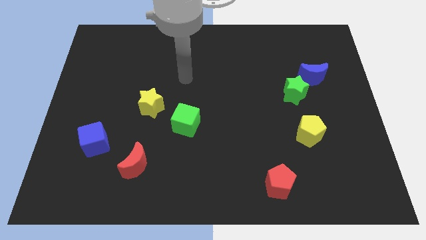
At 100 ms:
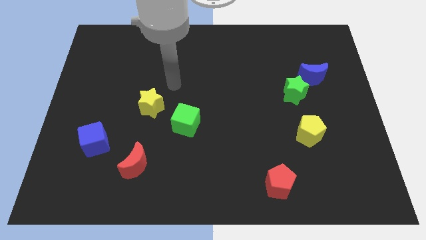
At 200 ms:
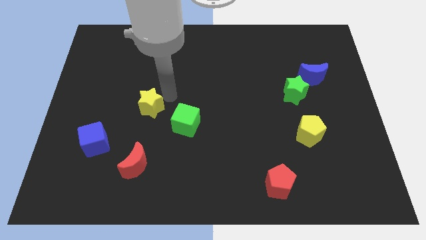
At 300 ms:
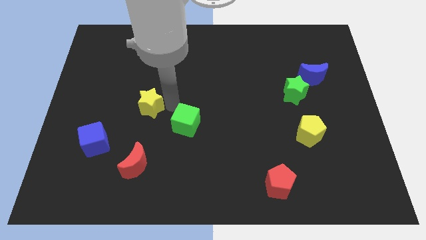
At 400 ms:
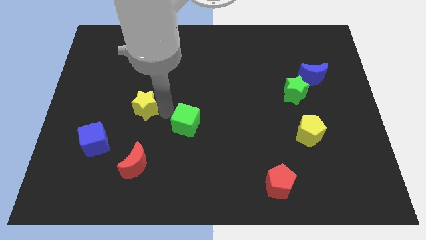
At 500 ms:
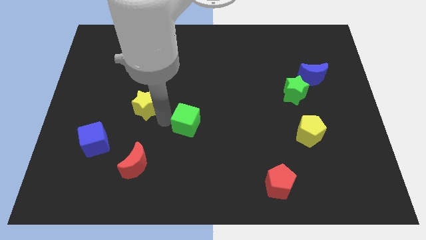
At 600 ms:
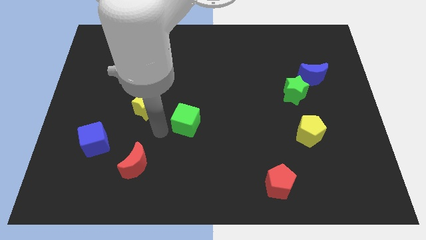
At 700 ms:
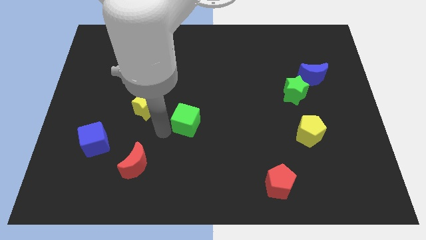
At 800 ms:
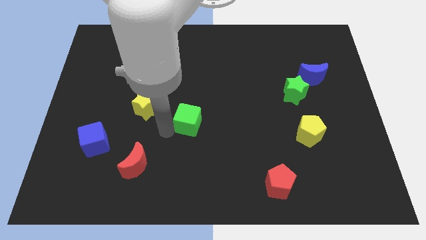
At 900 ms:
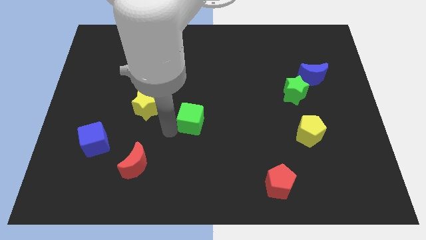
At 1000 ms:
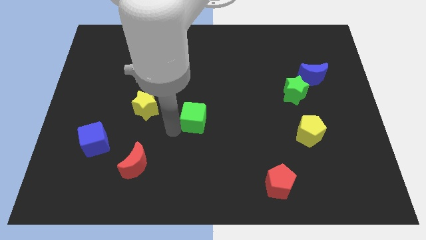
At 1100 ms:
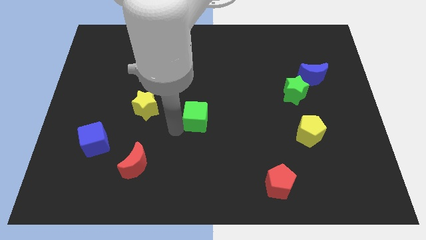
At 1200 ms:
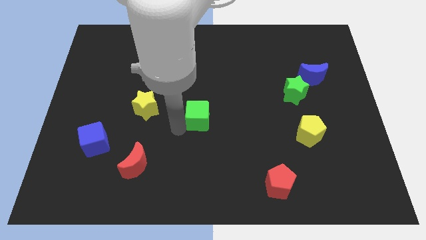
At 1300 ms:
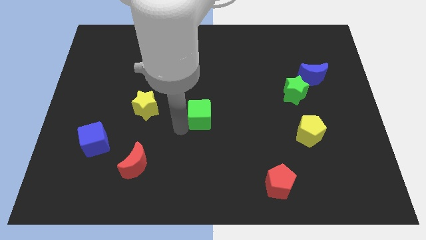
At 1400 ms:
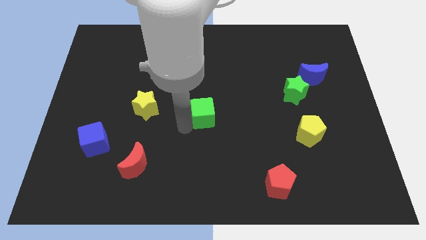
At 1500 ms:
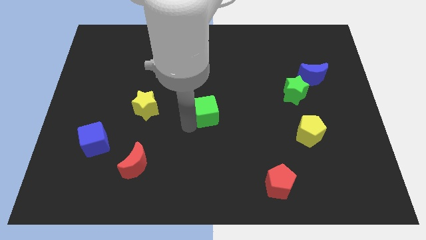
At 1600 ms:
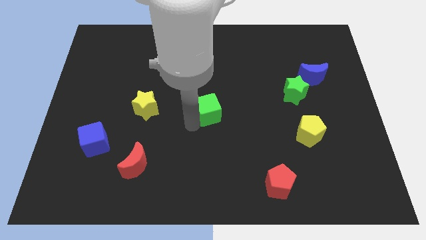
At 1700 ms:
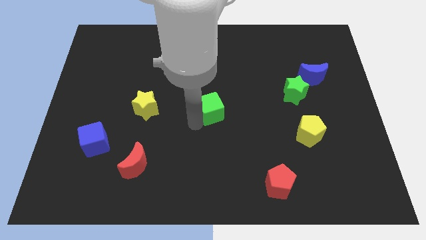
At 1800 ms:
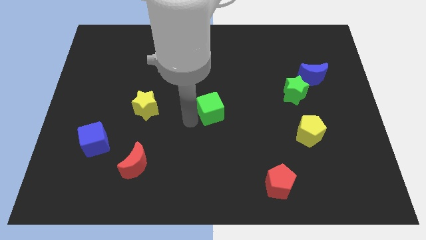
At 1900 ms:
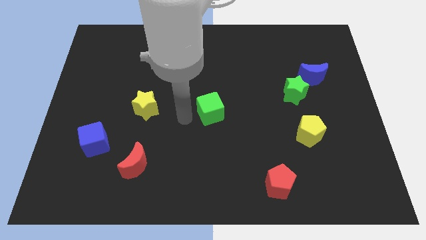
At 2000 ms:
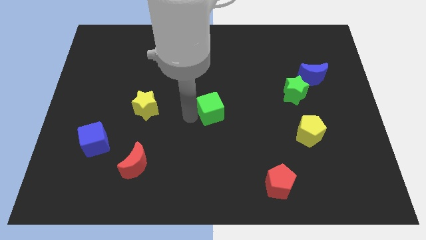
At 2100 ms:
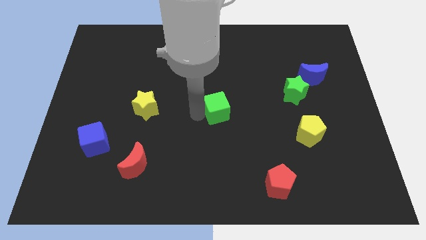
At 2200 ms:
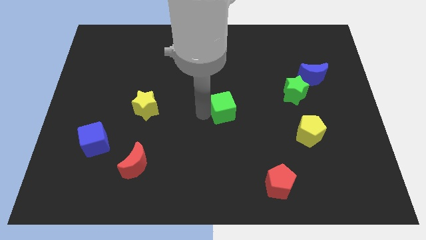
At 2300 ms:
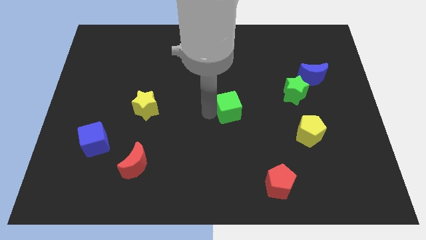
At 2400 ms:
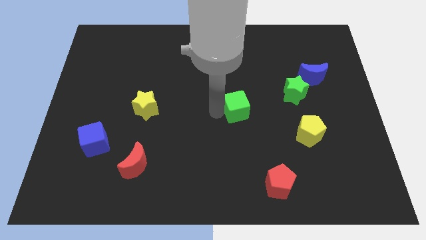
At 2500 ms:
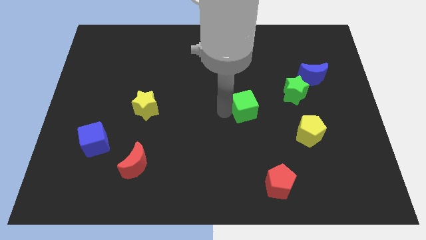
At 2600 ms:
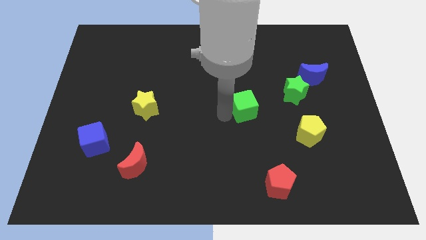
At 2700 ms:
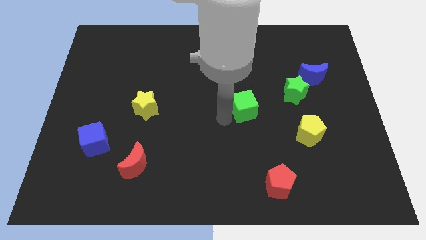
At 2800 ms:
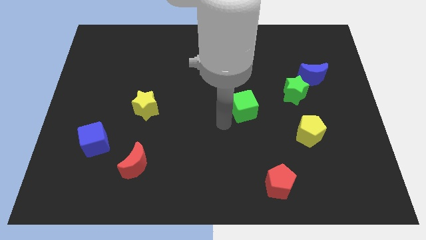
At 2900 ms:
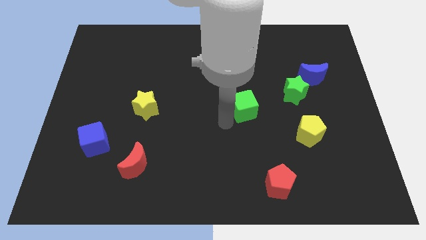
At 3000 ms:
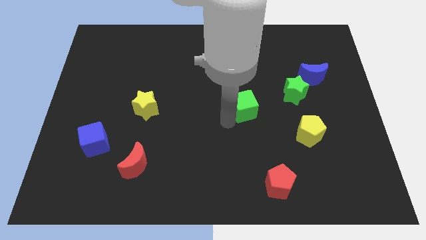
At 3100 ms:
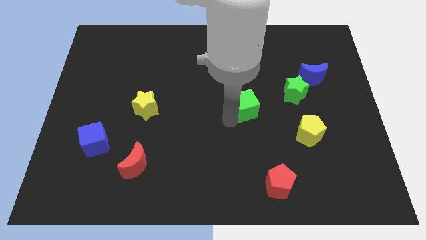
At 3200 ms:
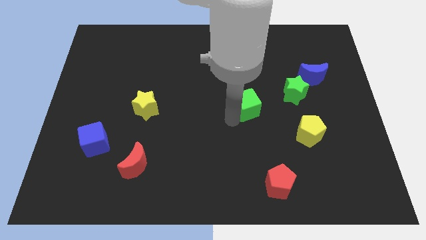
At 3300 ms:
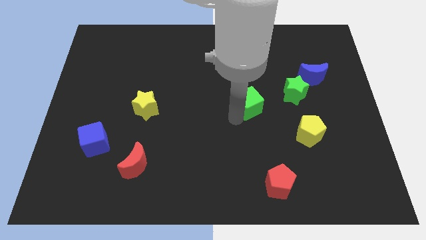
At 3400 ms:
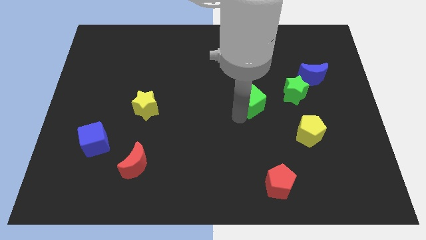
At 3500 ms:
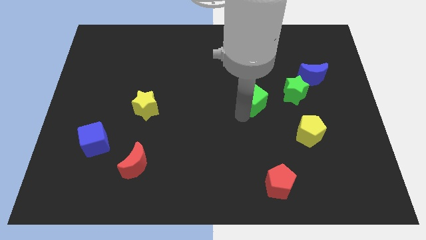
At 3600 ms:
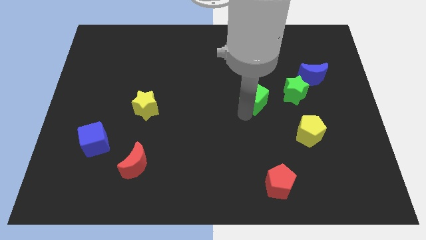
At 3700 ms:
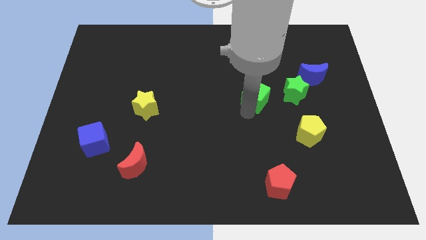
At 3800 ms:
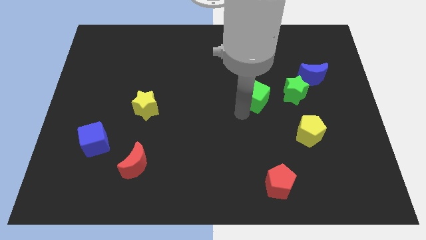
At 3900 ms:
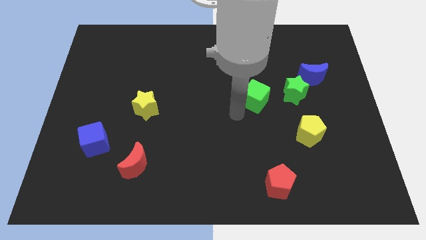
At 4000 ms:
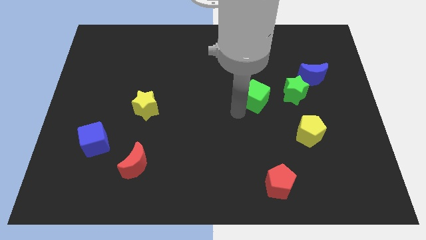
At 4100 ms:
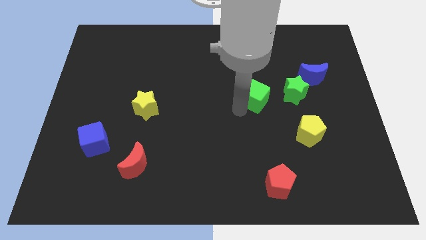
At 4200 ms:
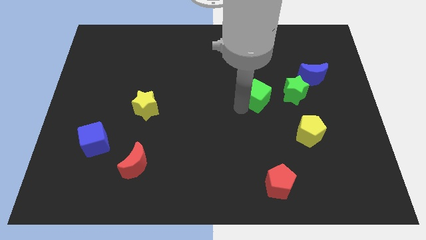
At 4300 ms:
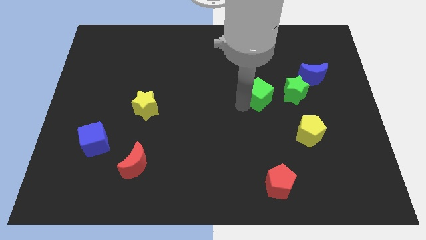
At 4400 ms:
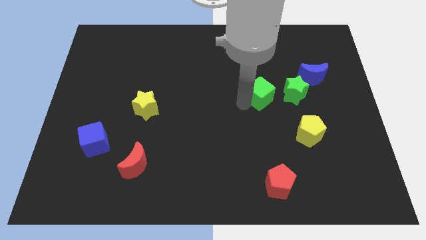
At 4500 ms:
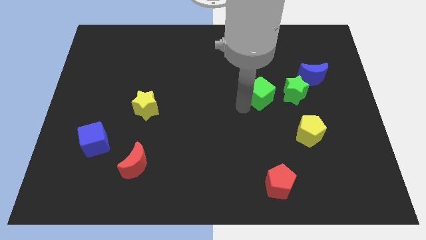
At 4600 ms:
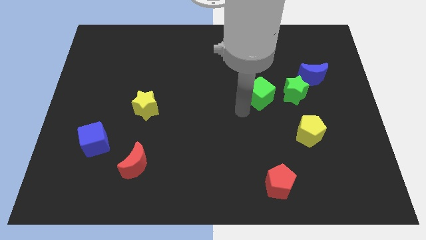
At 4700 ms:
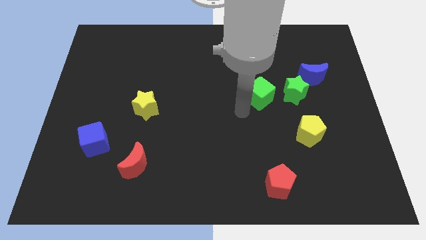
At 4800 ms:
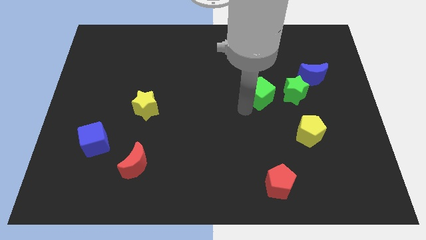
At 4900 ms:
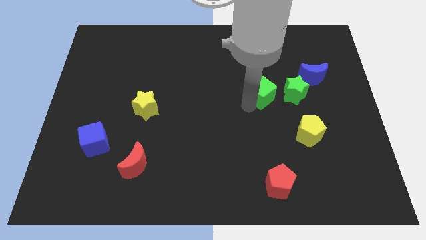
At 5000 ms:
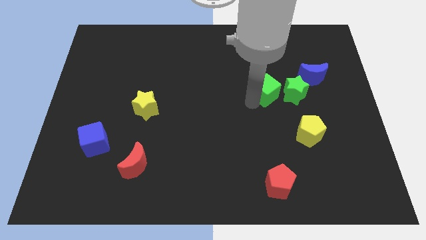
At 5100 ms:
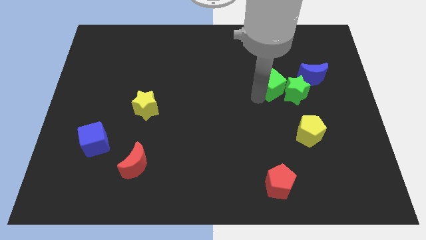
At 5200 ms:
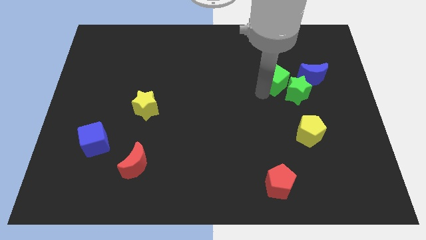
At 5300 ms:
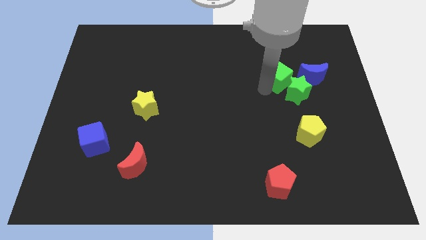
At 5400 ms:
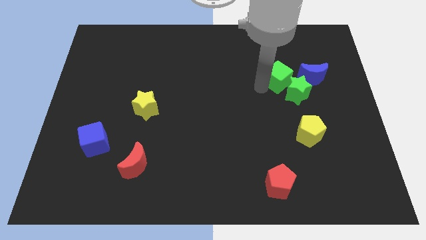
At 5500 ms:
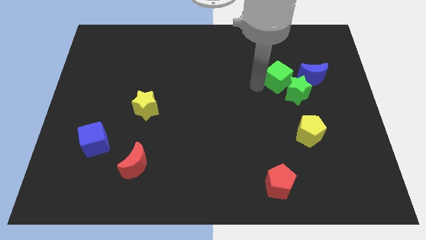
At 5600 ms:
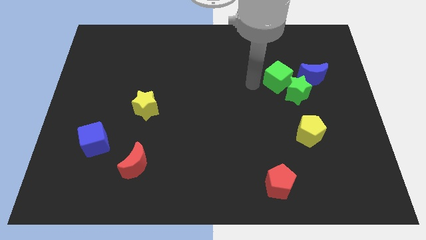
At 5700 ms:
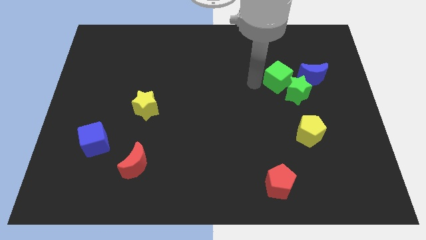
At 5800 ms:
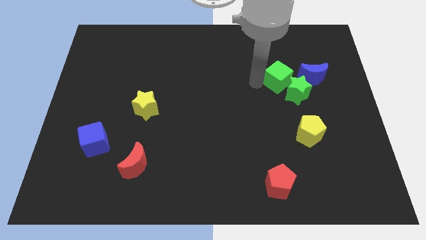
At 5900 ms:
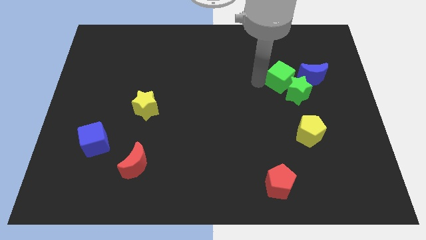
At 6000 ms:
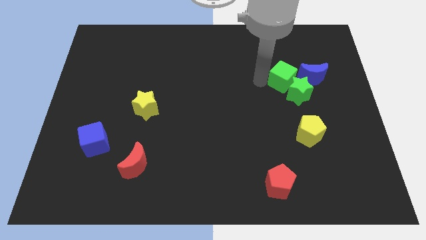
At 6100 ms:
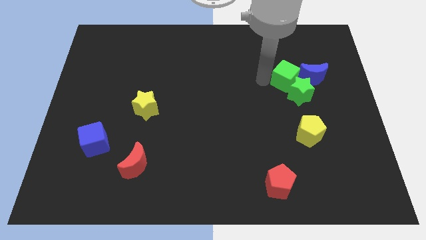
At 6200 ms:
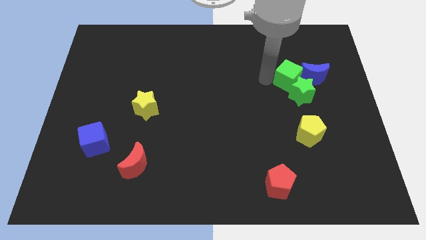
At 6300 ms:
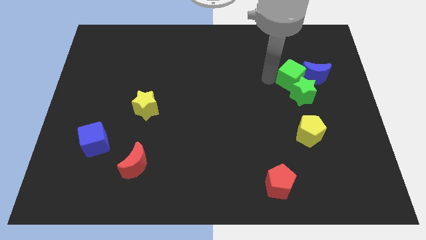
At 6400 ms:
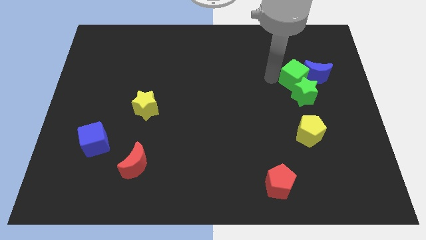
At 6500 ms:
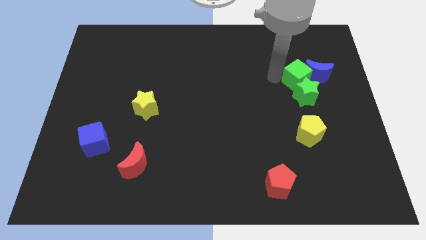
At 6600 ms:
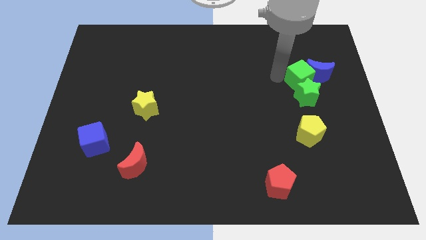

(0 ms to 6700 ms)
put the green cube to the top of the yellow pentagon

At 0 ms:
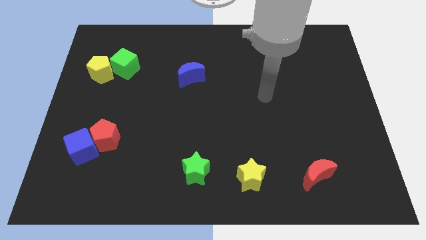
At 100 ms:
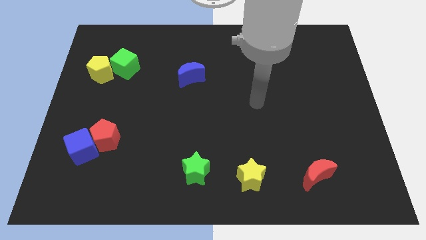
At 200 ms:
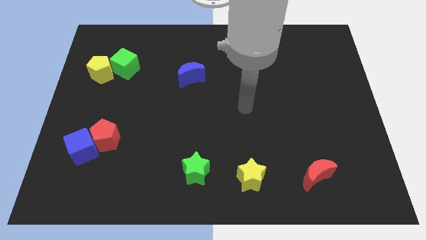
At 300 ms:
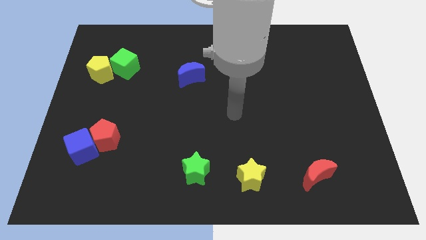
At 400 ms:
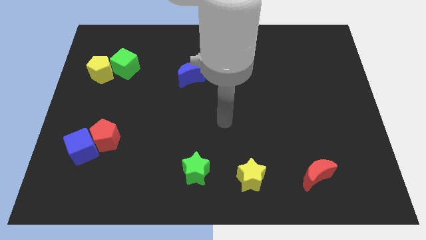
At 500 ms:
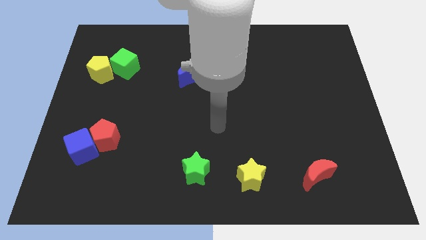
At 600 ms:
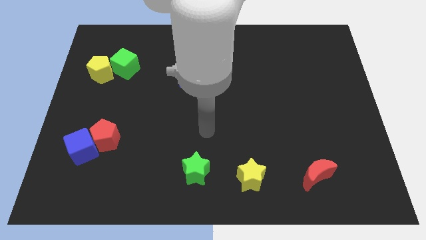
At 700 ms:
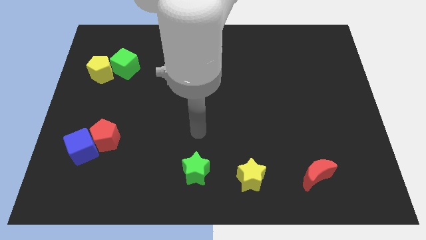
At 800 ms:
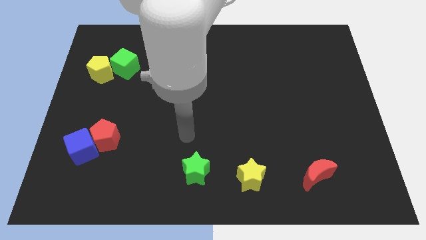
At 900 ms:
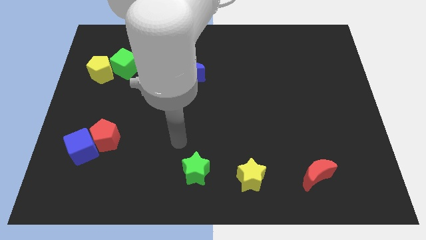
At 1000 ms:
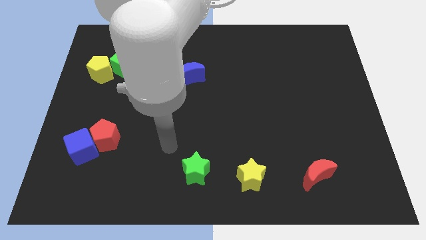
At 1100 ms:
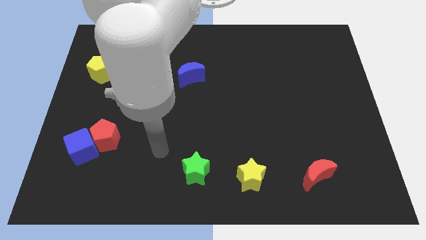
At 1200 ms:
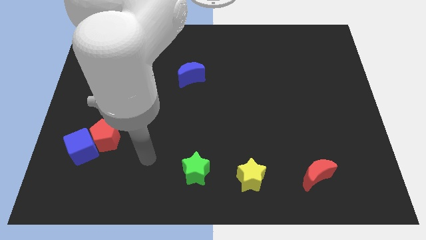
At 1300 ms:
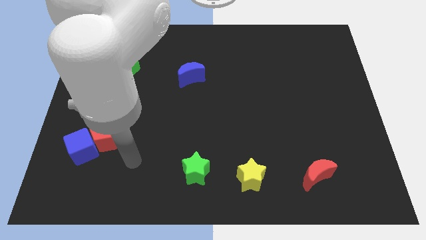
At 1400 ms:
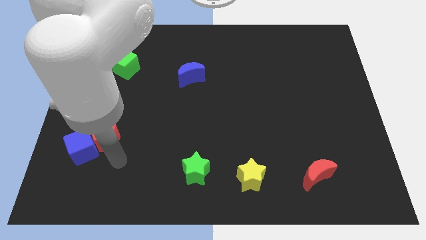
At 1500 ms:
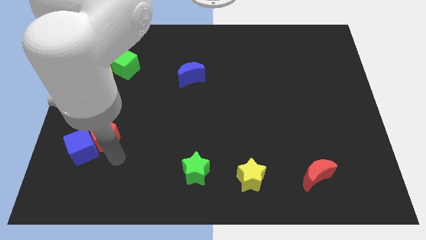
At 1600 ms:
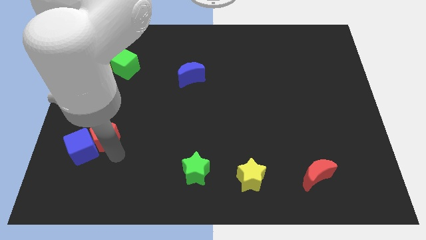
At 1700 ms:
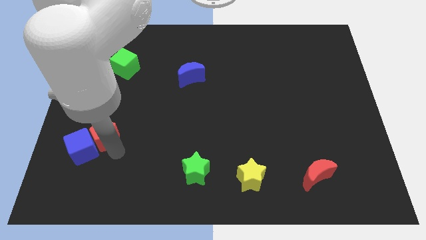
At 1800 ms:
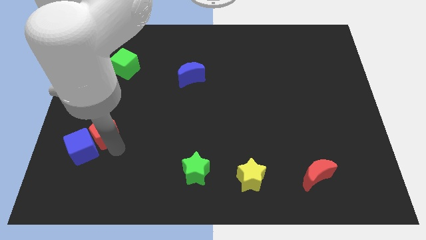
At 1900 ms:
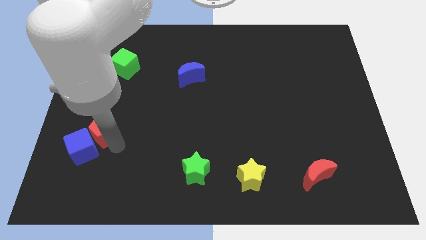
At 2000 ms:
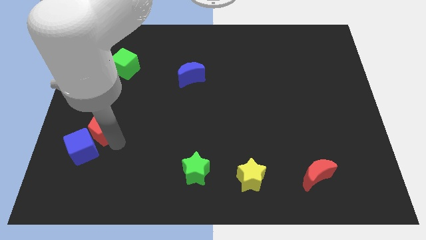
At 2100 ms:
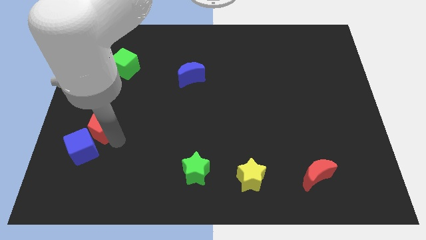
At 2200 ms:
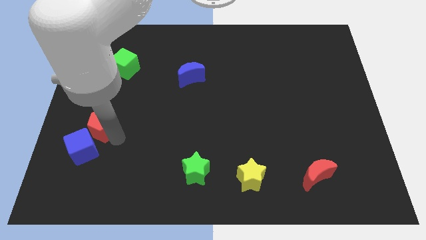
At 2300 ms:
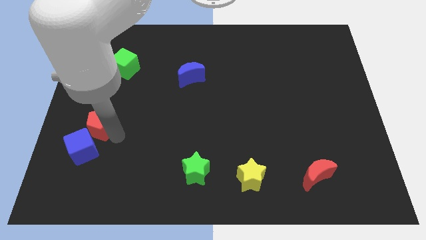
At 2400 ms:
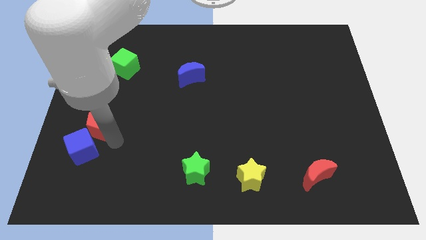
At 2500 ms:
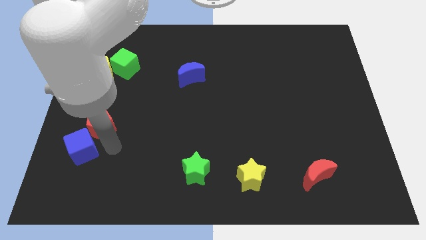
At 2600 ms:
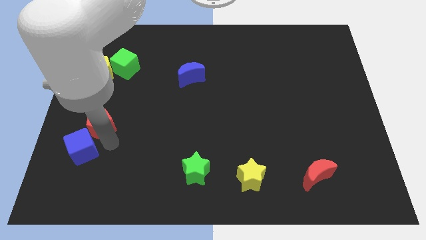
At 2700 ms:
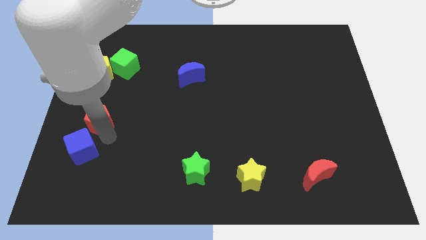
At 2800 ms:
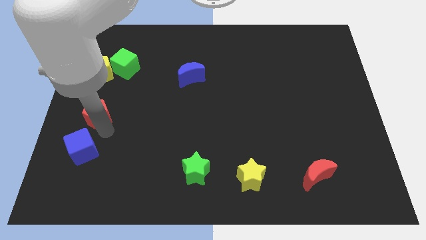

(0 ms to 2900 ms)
put the red pentagon to the bottom of the yellow pentagon
